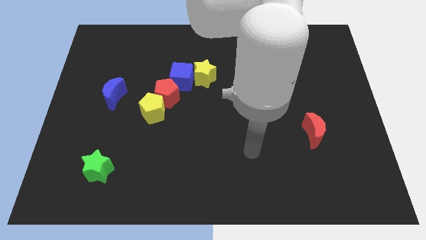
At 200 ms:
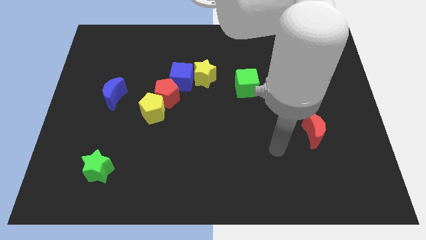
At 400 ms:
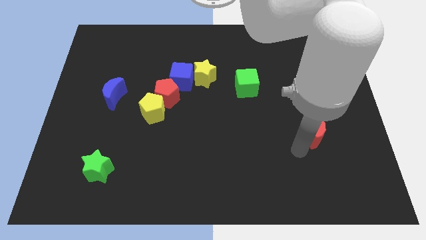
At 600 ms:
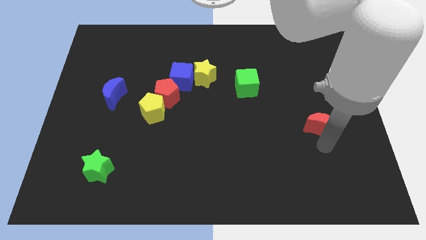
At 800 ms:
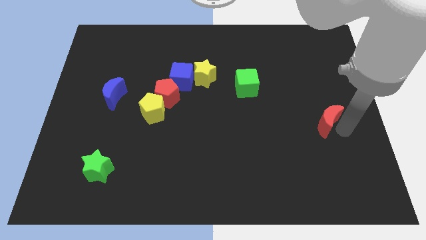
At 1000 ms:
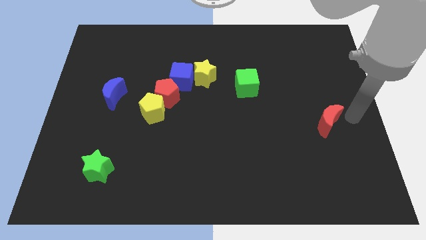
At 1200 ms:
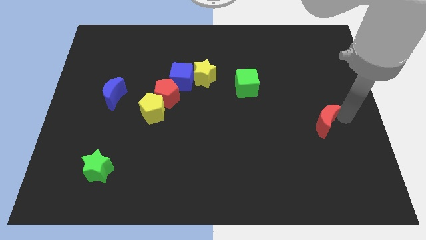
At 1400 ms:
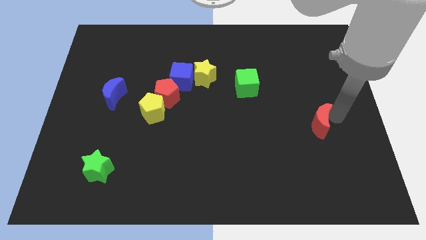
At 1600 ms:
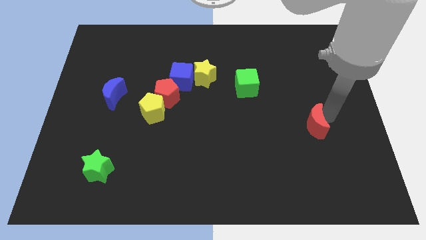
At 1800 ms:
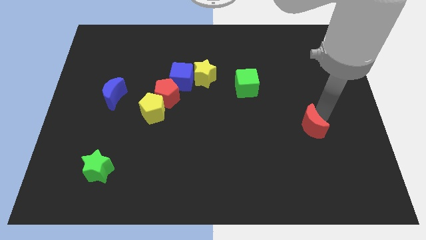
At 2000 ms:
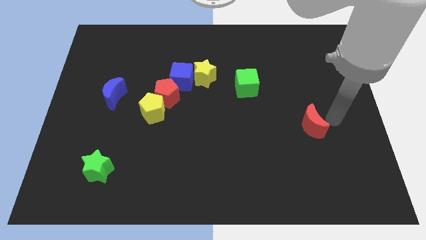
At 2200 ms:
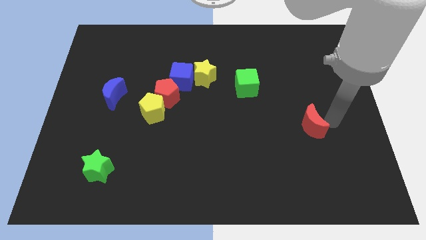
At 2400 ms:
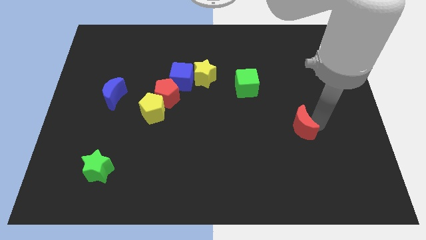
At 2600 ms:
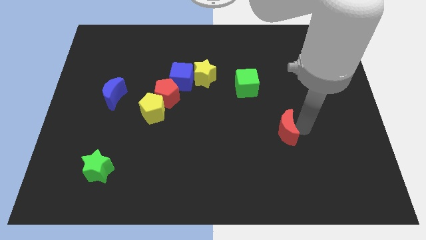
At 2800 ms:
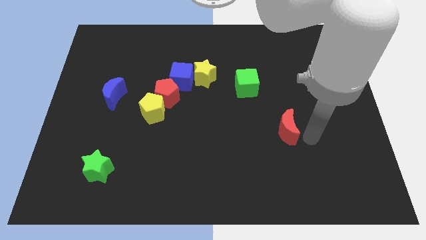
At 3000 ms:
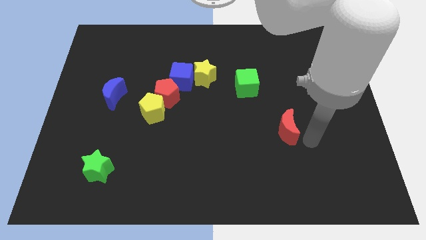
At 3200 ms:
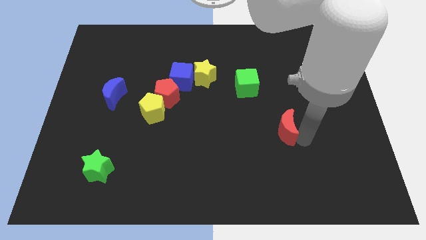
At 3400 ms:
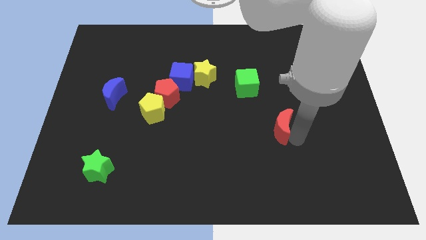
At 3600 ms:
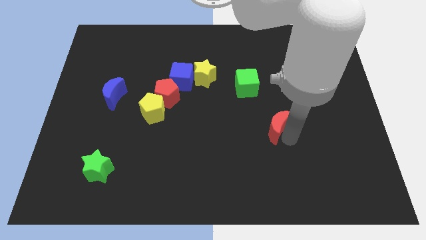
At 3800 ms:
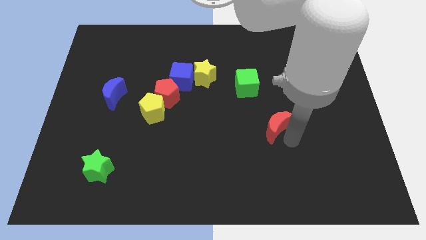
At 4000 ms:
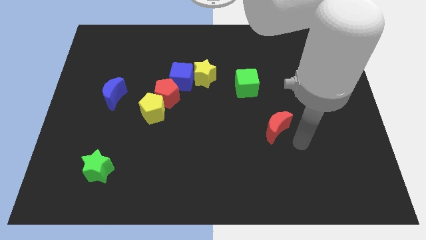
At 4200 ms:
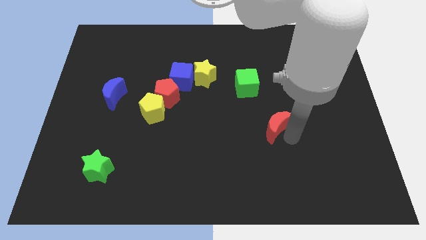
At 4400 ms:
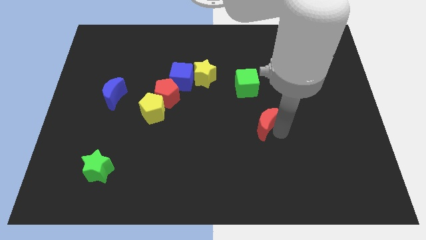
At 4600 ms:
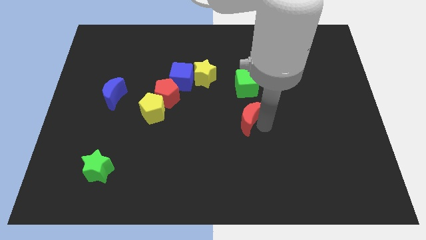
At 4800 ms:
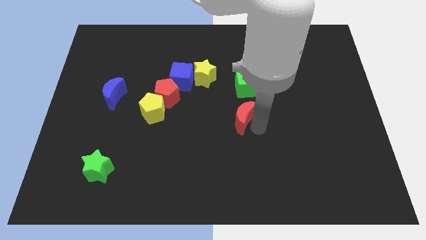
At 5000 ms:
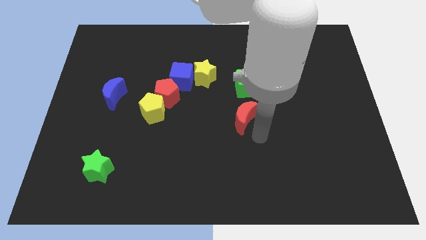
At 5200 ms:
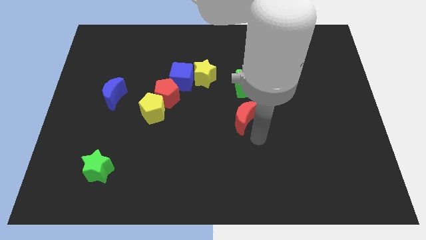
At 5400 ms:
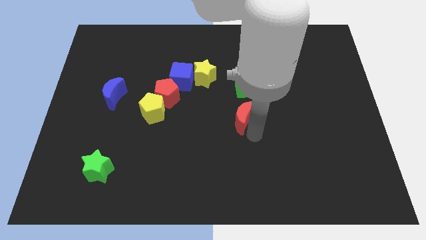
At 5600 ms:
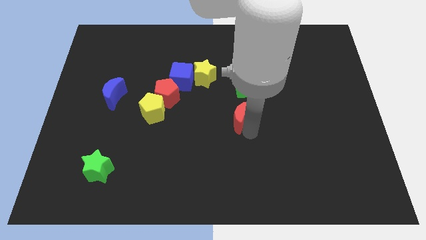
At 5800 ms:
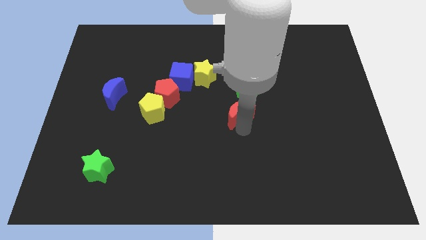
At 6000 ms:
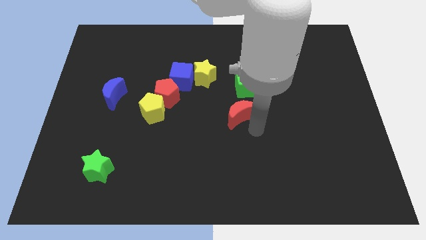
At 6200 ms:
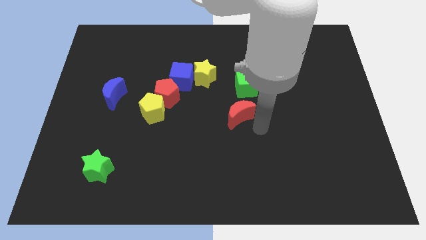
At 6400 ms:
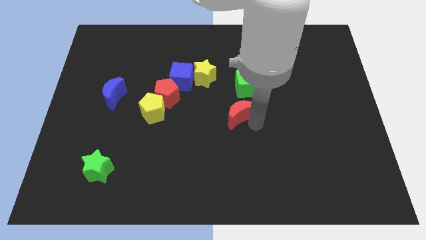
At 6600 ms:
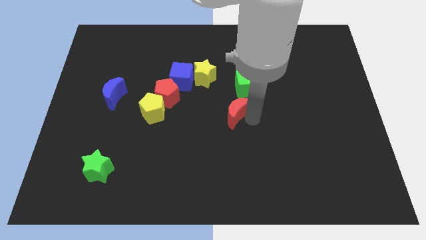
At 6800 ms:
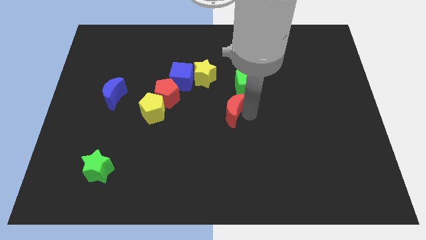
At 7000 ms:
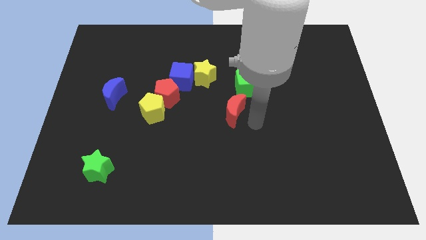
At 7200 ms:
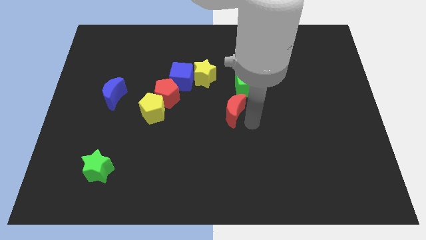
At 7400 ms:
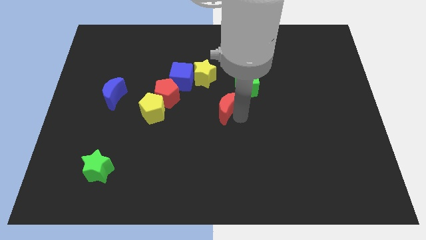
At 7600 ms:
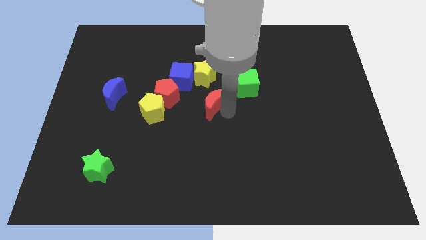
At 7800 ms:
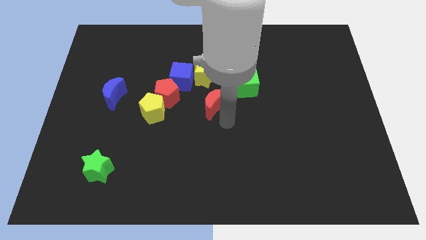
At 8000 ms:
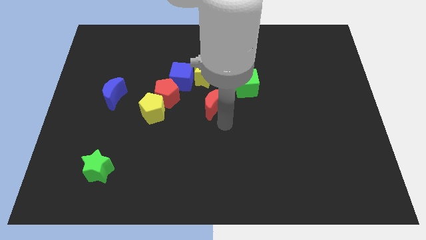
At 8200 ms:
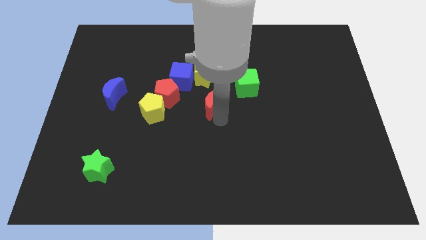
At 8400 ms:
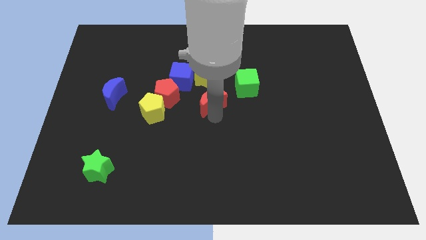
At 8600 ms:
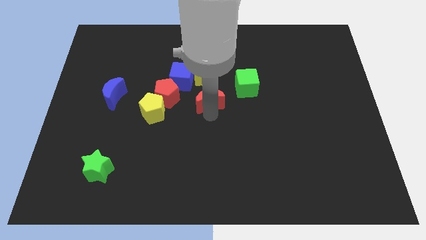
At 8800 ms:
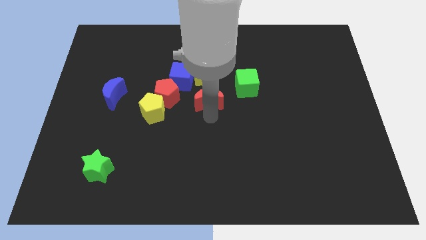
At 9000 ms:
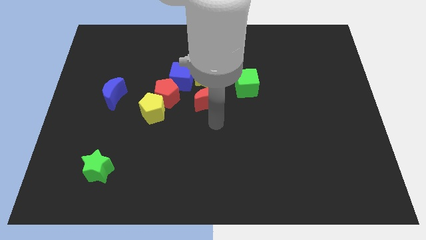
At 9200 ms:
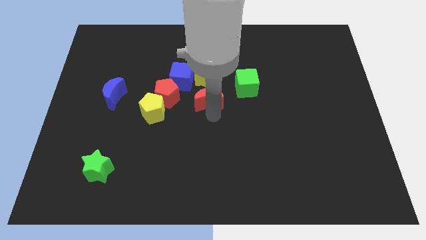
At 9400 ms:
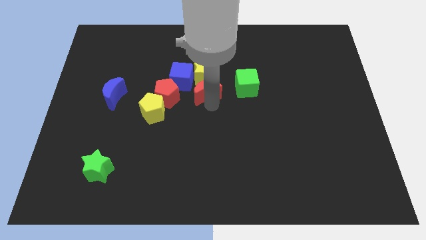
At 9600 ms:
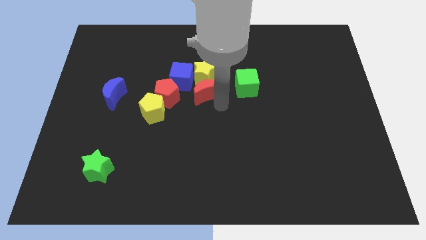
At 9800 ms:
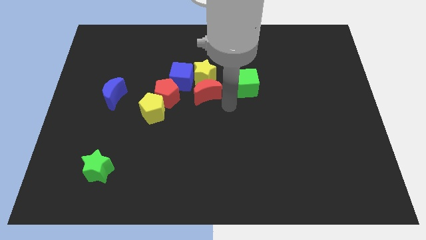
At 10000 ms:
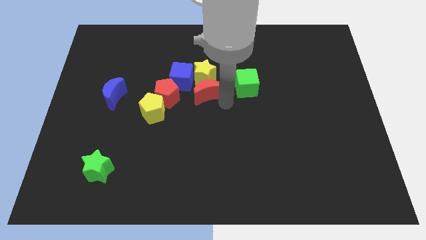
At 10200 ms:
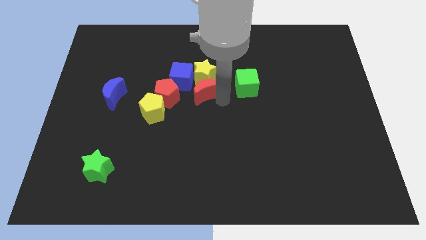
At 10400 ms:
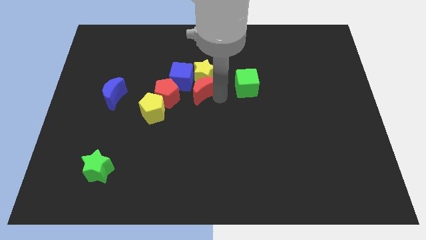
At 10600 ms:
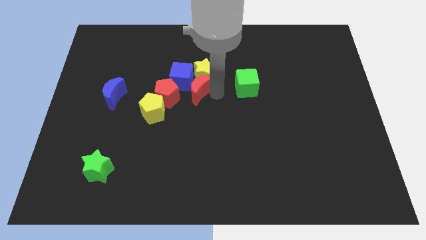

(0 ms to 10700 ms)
slide the red moon towards the blue cube

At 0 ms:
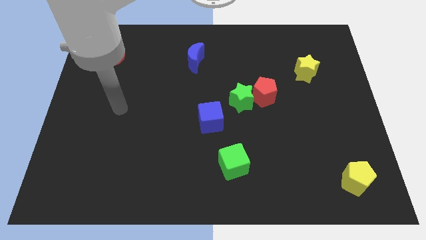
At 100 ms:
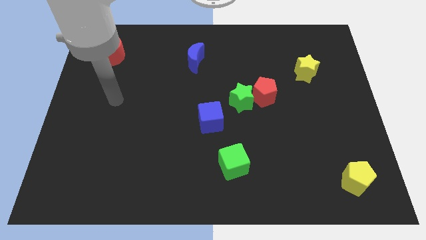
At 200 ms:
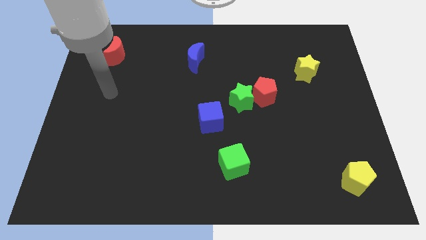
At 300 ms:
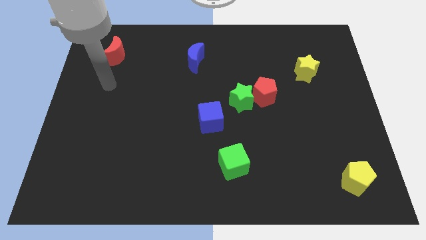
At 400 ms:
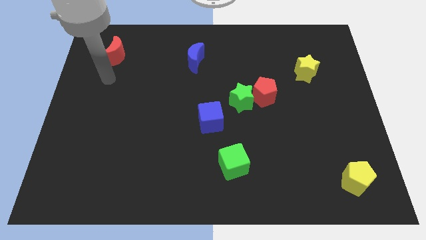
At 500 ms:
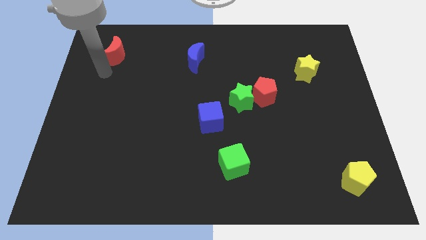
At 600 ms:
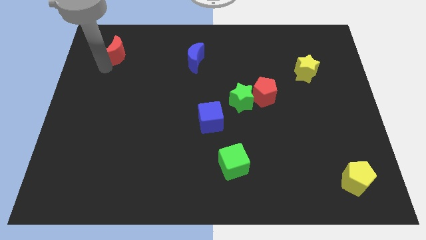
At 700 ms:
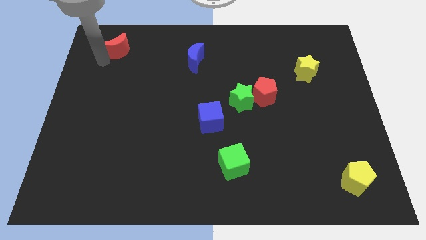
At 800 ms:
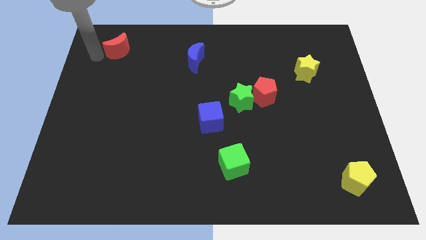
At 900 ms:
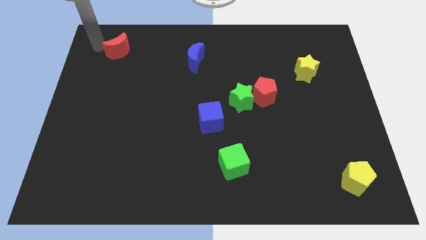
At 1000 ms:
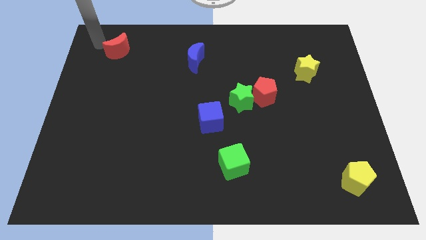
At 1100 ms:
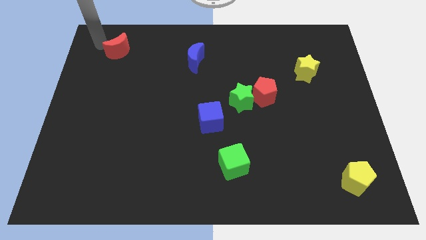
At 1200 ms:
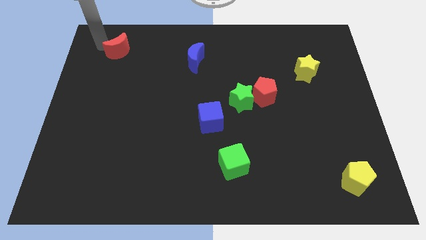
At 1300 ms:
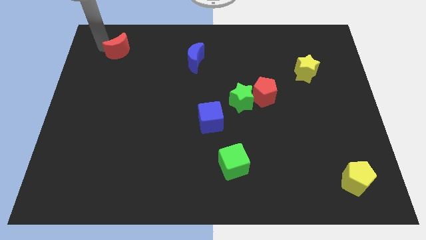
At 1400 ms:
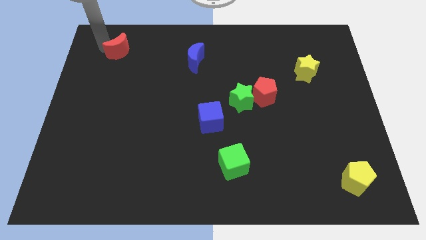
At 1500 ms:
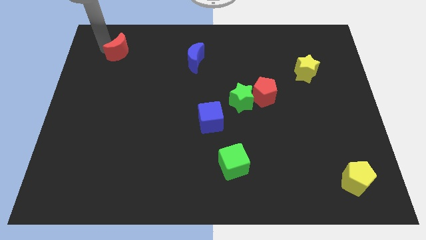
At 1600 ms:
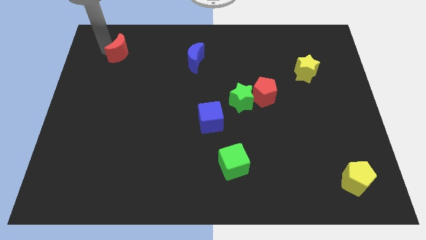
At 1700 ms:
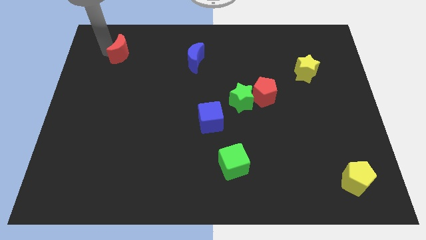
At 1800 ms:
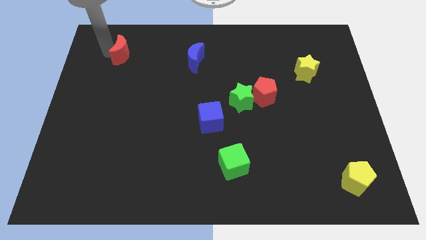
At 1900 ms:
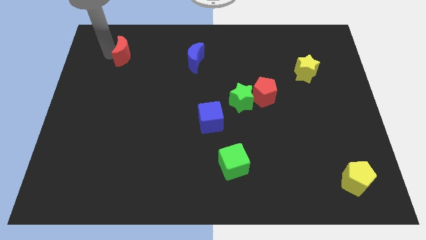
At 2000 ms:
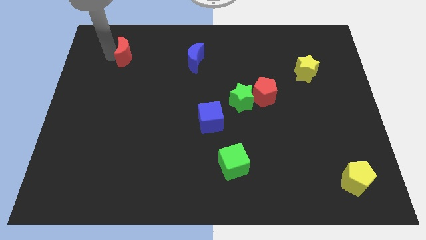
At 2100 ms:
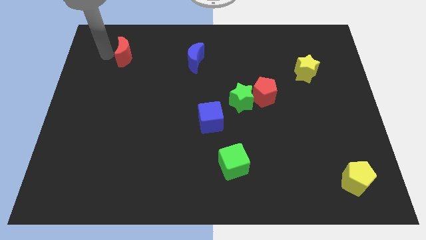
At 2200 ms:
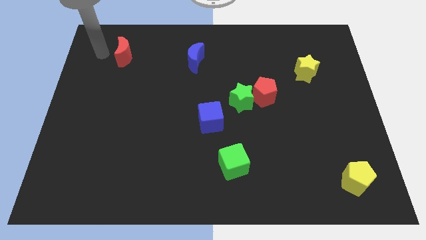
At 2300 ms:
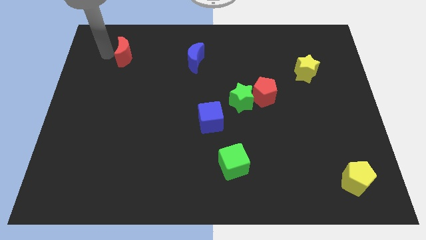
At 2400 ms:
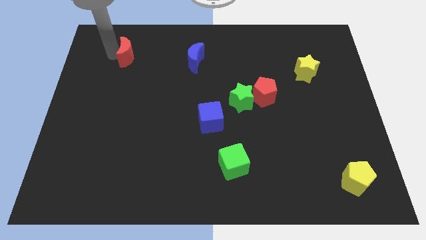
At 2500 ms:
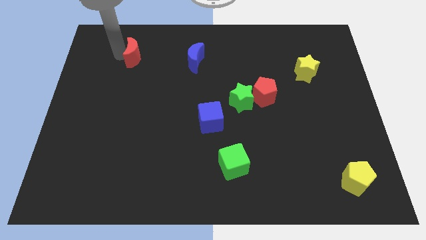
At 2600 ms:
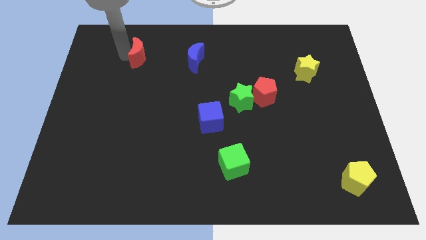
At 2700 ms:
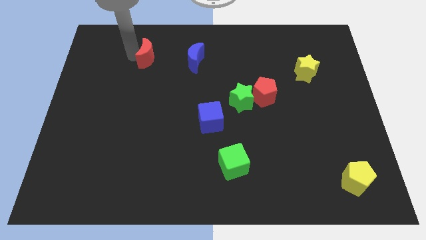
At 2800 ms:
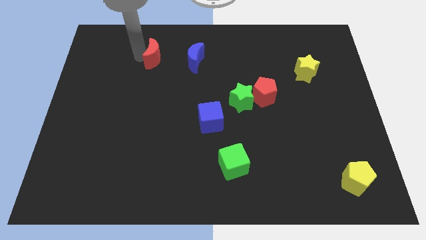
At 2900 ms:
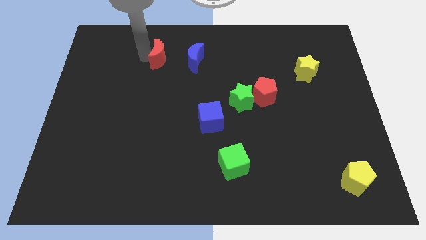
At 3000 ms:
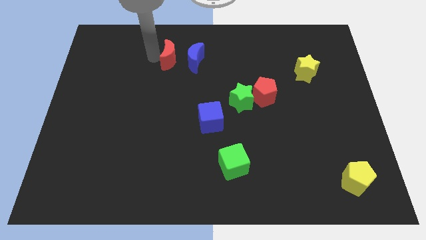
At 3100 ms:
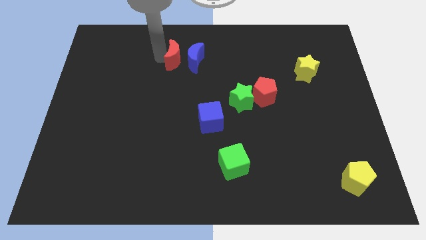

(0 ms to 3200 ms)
slide the red moon towards the blue moon
